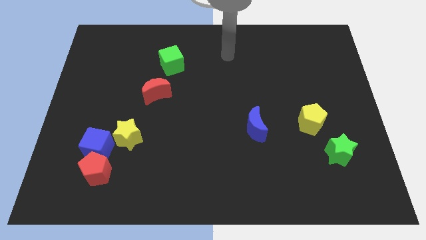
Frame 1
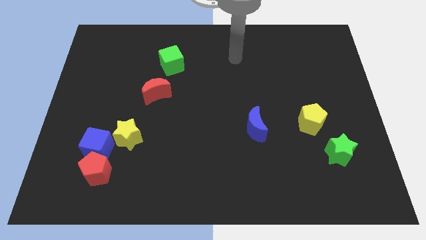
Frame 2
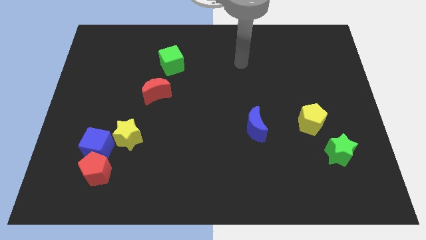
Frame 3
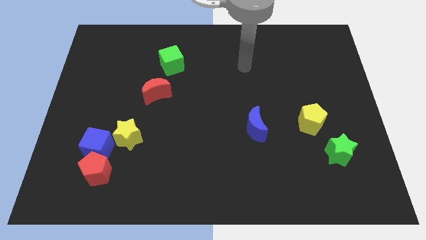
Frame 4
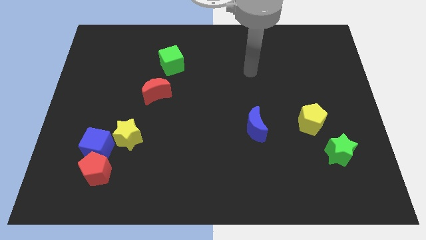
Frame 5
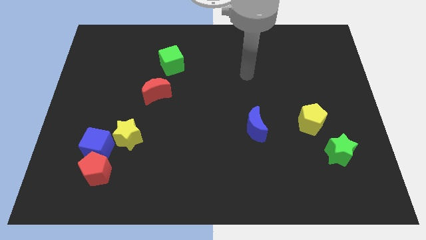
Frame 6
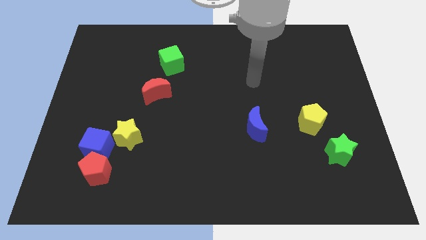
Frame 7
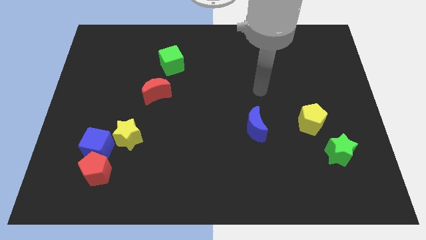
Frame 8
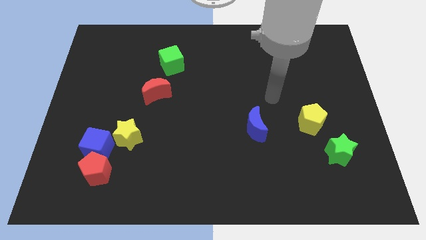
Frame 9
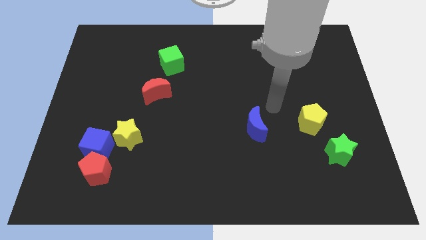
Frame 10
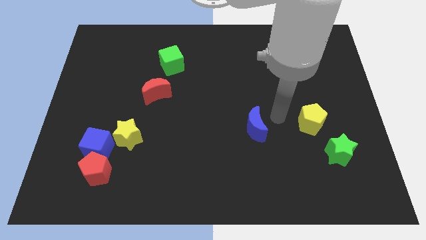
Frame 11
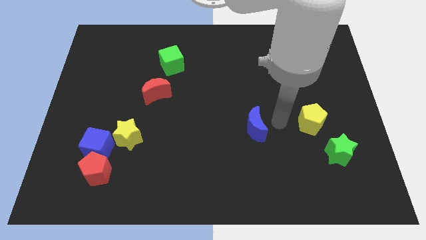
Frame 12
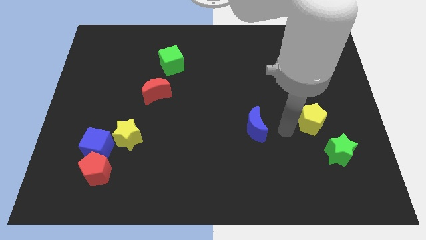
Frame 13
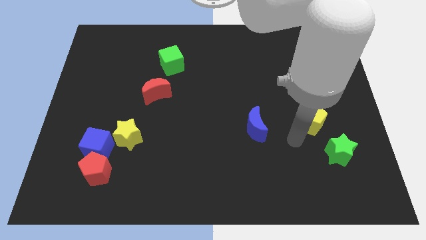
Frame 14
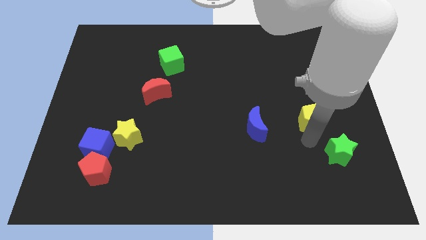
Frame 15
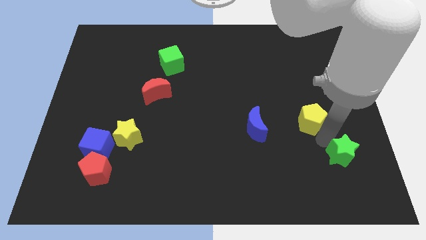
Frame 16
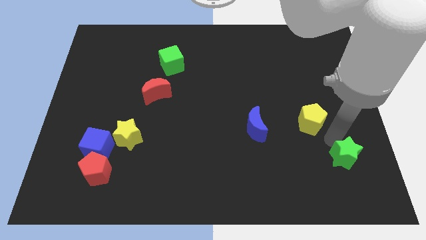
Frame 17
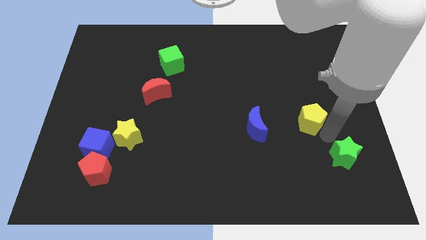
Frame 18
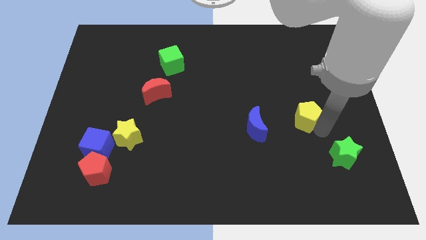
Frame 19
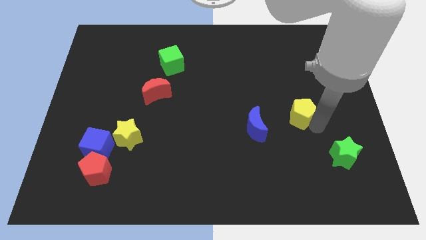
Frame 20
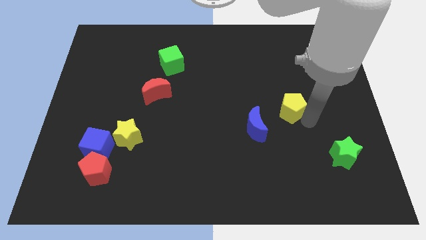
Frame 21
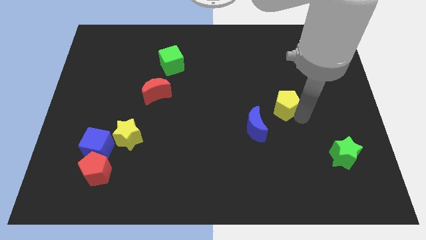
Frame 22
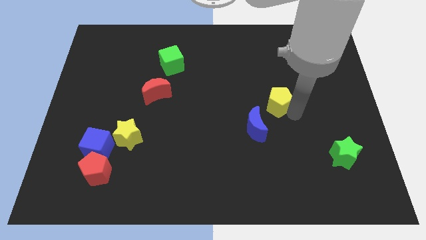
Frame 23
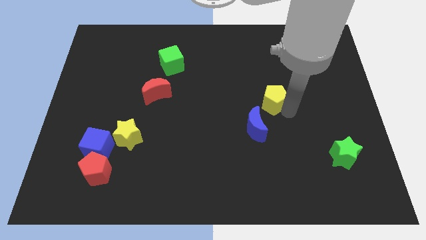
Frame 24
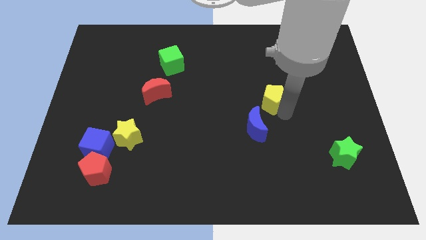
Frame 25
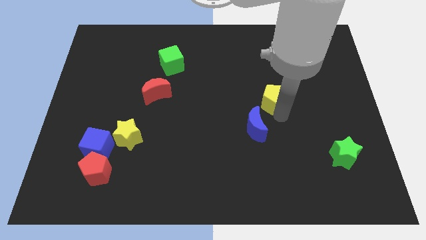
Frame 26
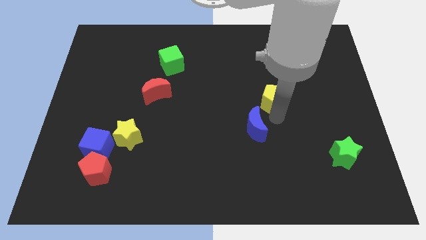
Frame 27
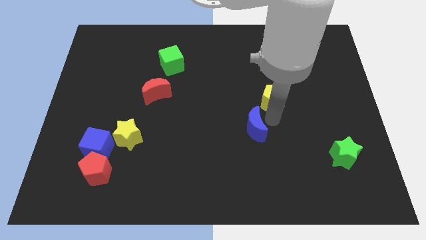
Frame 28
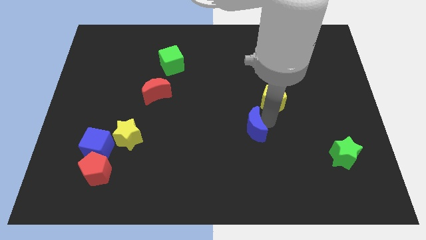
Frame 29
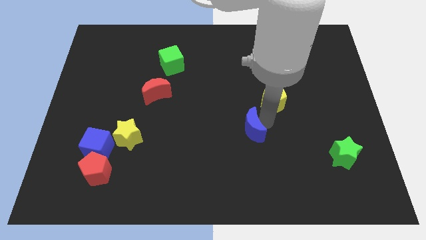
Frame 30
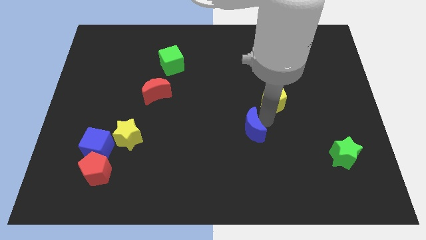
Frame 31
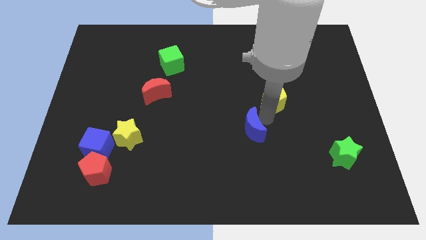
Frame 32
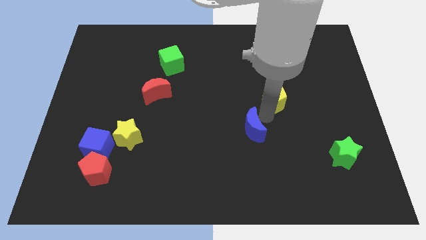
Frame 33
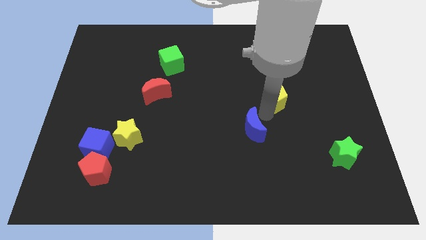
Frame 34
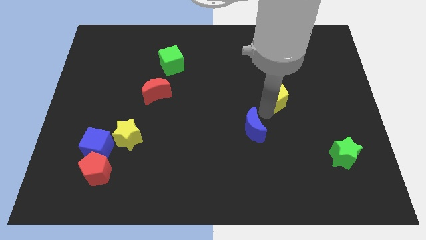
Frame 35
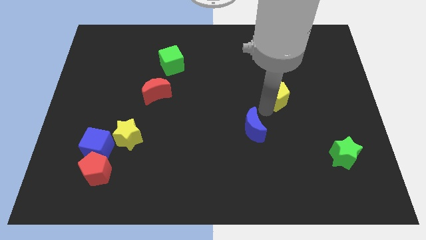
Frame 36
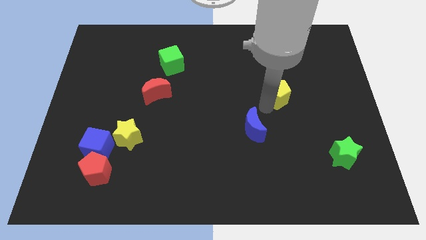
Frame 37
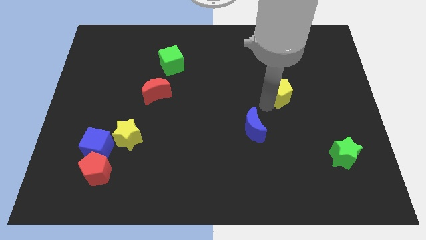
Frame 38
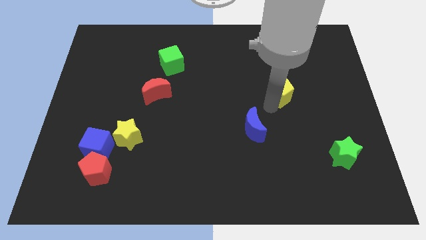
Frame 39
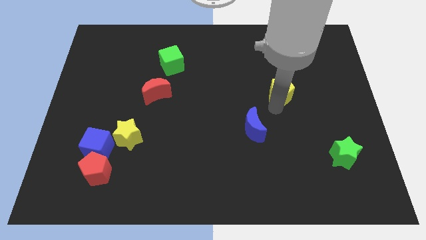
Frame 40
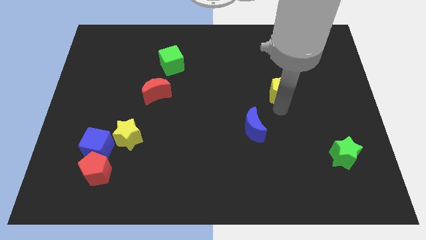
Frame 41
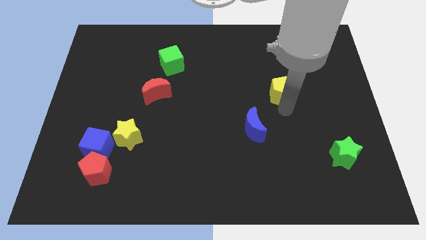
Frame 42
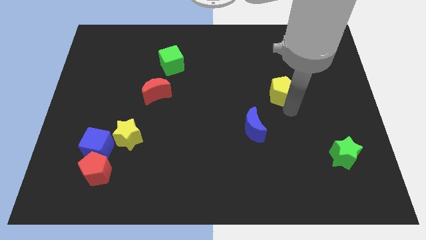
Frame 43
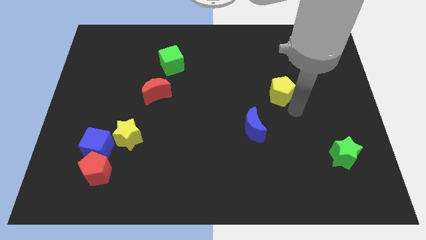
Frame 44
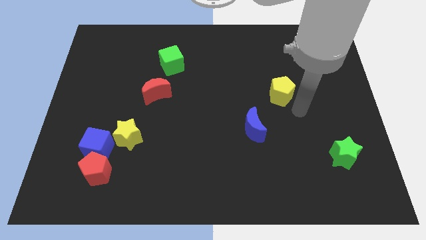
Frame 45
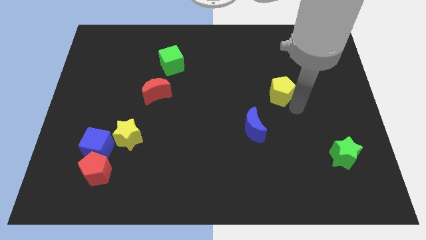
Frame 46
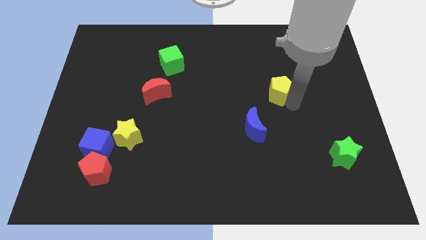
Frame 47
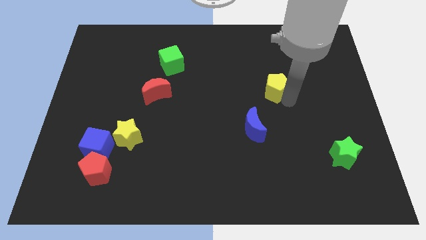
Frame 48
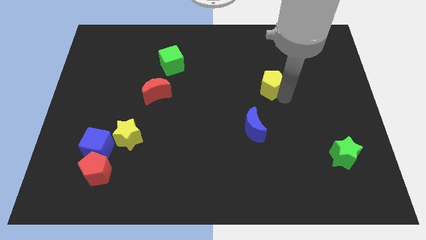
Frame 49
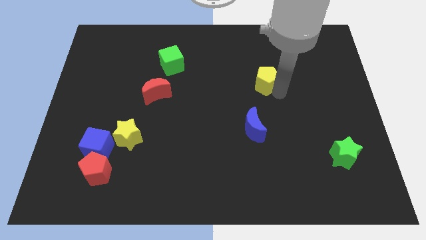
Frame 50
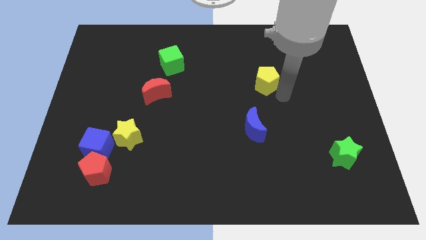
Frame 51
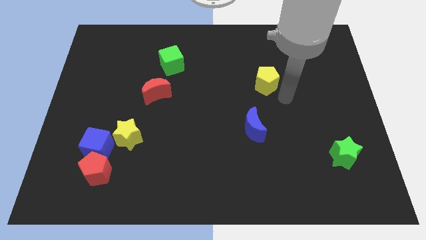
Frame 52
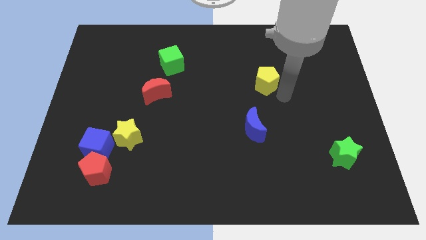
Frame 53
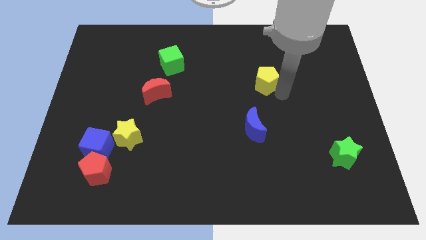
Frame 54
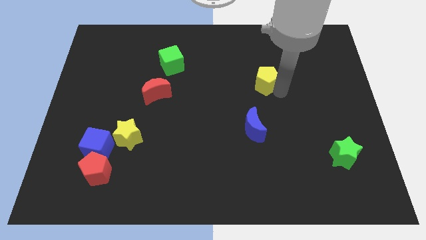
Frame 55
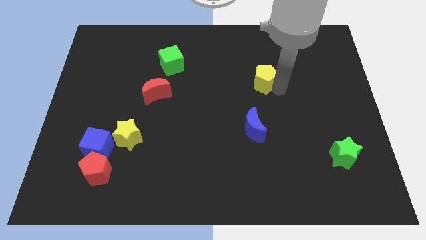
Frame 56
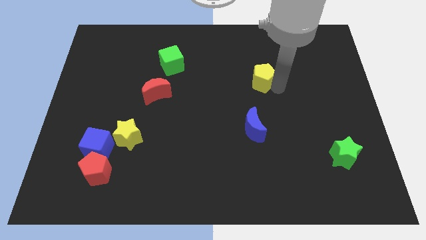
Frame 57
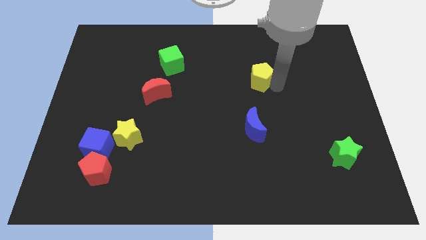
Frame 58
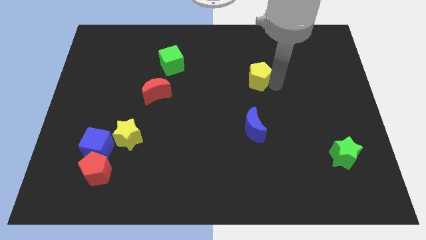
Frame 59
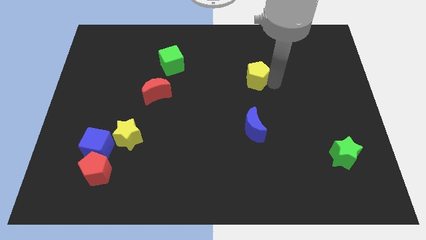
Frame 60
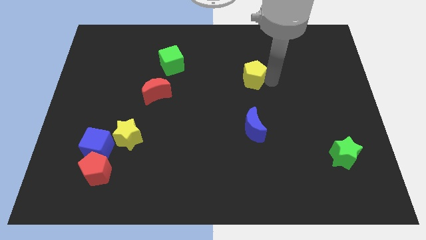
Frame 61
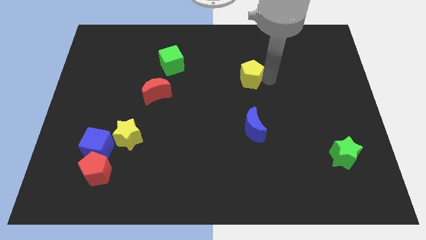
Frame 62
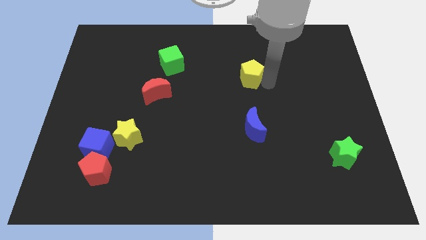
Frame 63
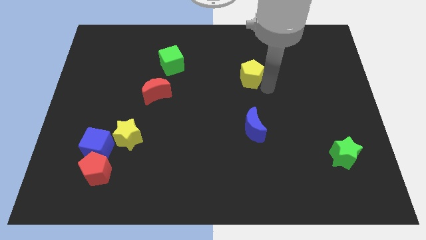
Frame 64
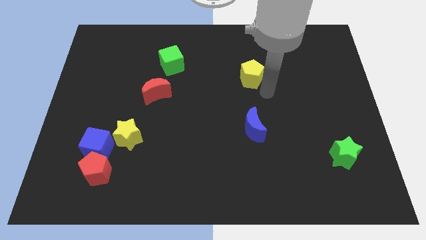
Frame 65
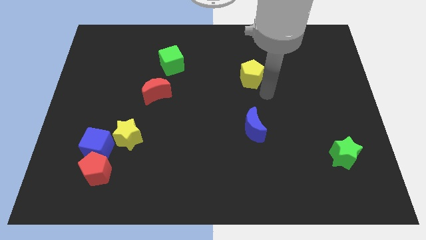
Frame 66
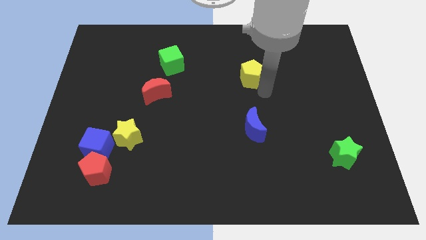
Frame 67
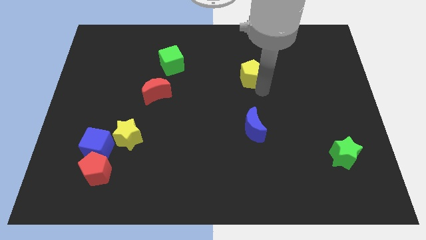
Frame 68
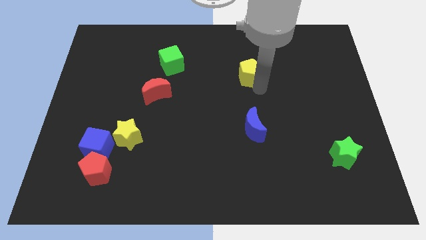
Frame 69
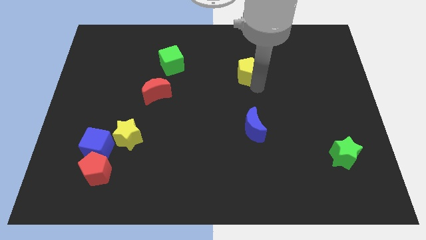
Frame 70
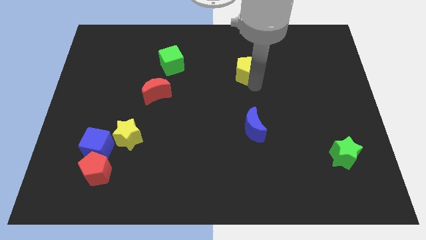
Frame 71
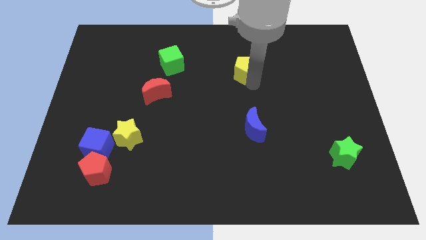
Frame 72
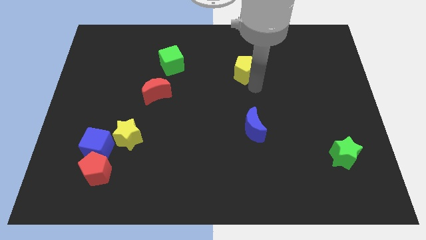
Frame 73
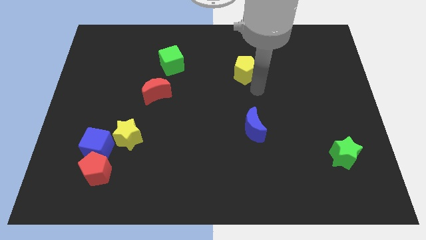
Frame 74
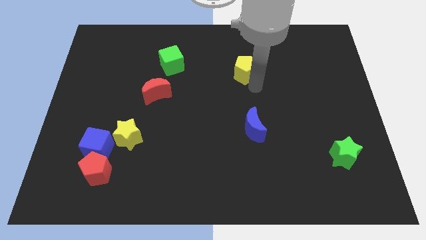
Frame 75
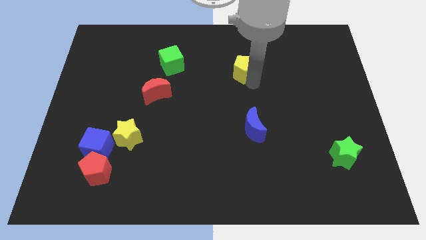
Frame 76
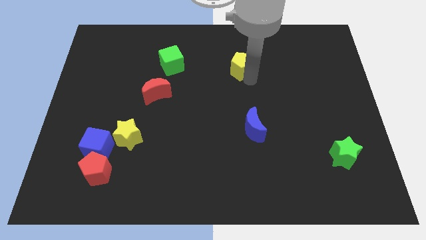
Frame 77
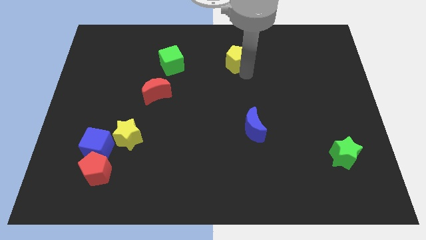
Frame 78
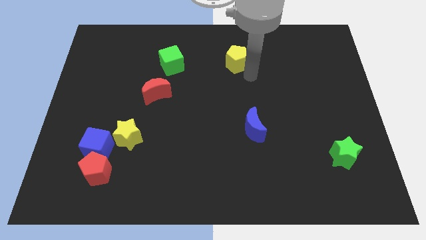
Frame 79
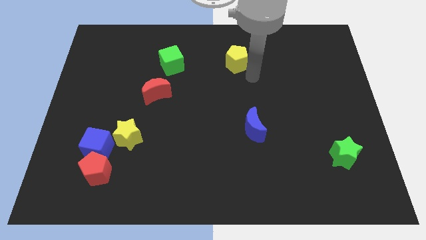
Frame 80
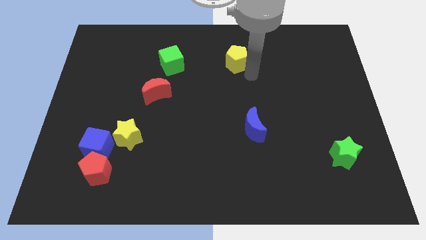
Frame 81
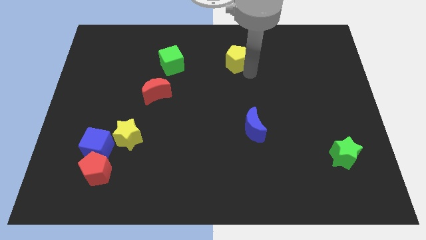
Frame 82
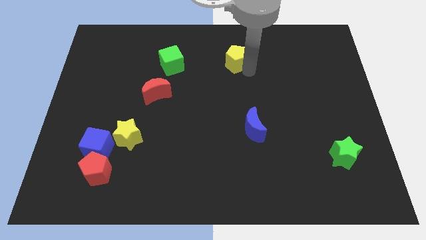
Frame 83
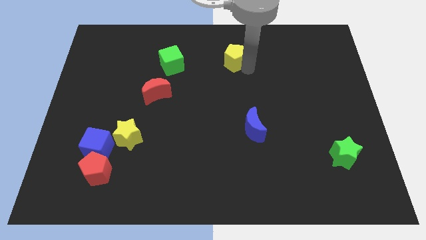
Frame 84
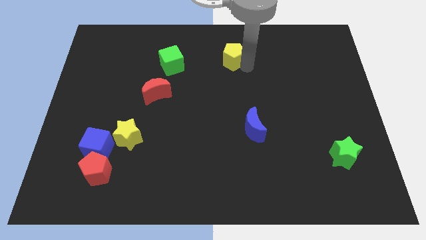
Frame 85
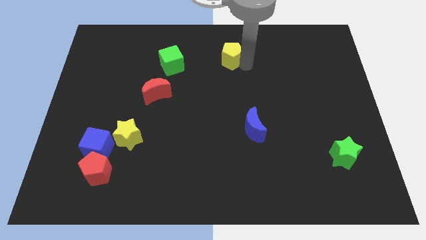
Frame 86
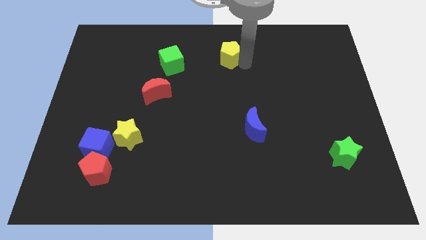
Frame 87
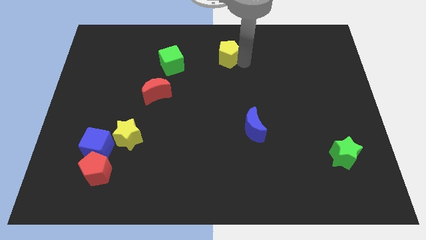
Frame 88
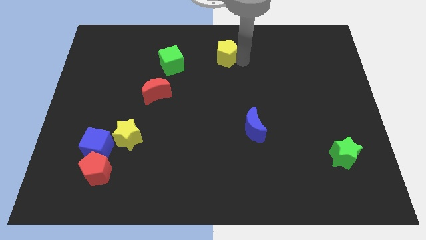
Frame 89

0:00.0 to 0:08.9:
put the yellow pentagon to the towards your base
